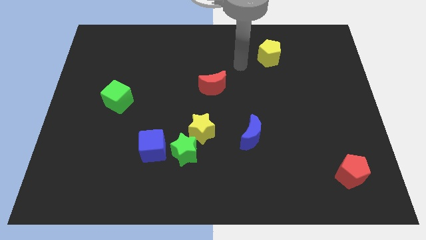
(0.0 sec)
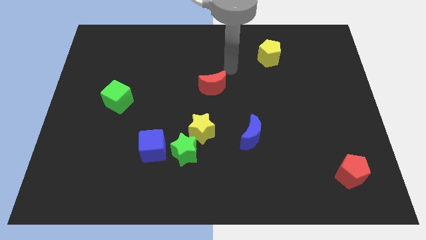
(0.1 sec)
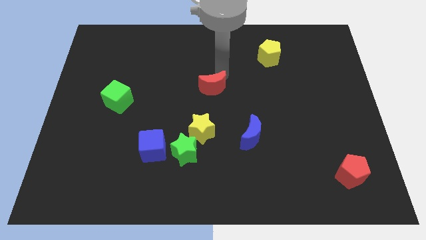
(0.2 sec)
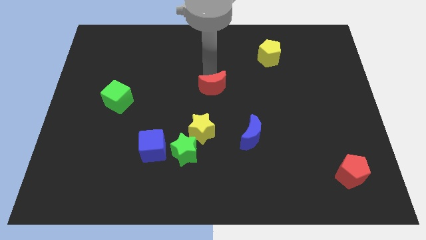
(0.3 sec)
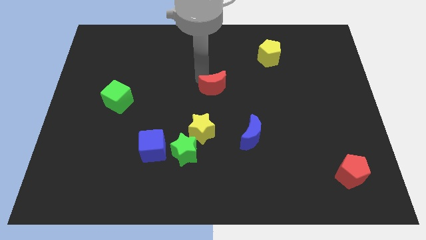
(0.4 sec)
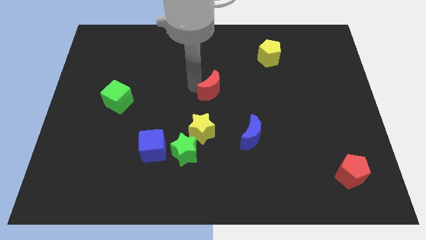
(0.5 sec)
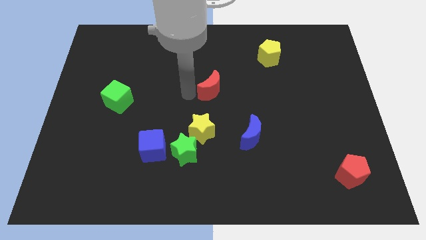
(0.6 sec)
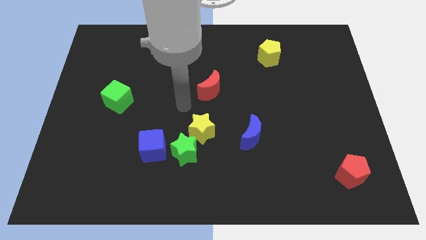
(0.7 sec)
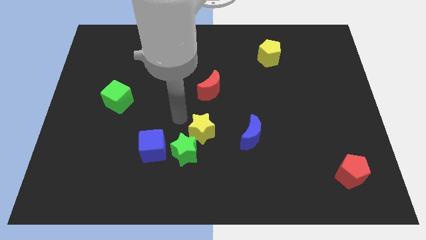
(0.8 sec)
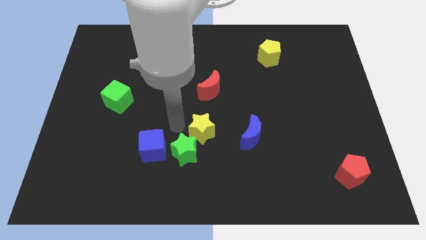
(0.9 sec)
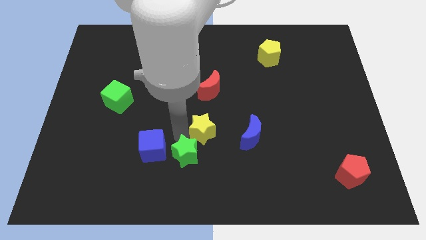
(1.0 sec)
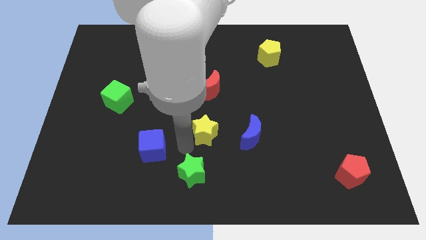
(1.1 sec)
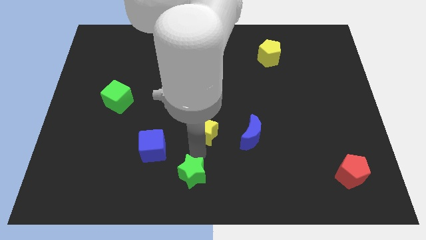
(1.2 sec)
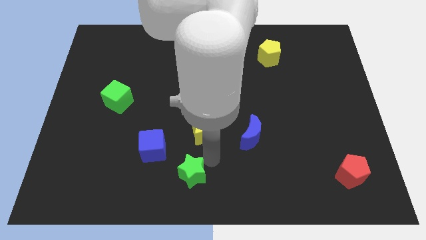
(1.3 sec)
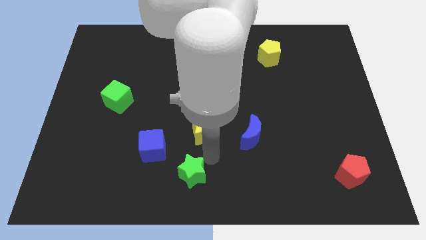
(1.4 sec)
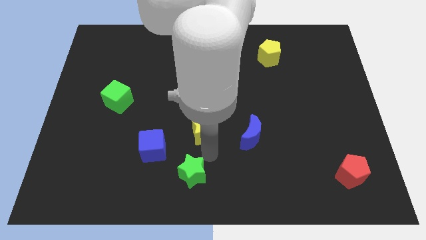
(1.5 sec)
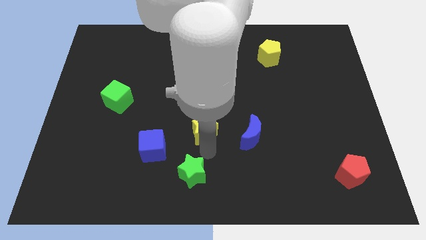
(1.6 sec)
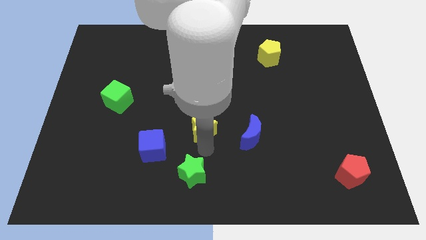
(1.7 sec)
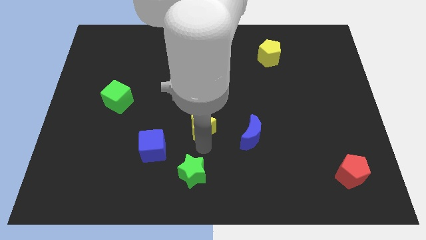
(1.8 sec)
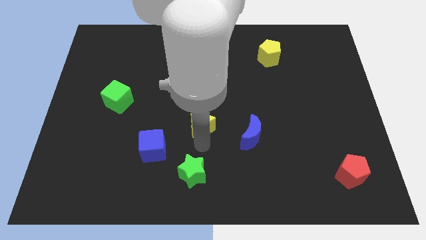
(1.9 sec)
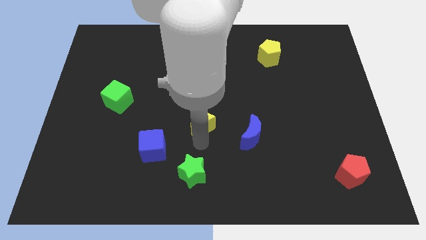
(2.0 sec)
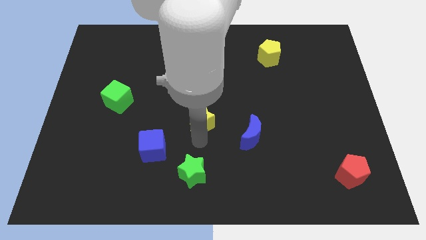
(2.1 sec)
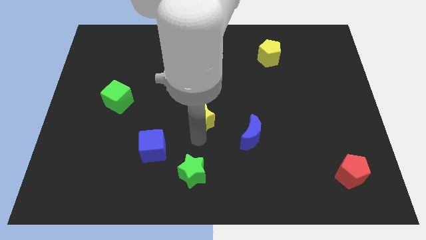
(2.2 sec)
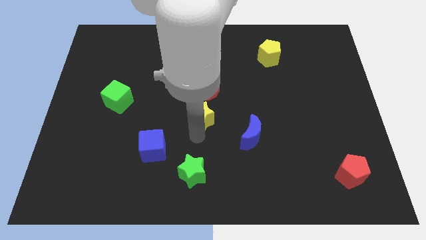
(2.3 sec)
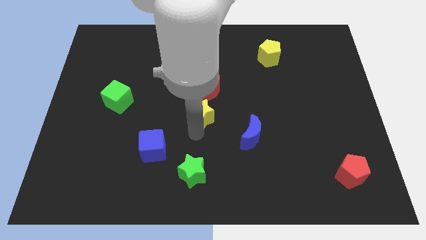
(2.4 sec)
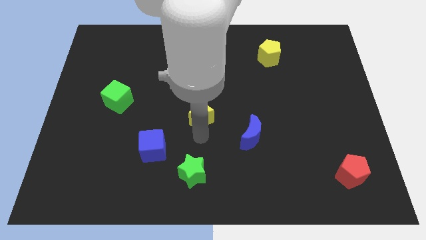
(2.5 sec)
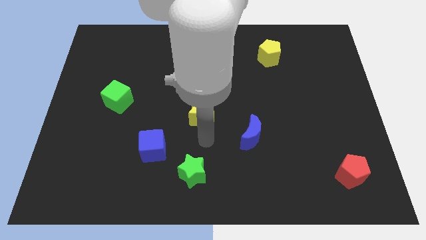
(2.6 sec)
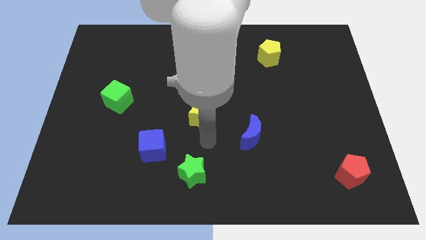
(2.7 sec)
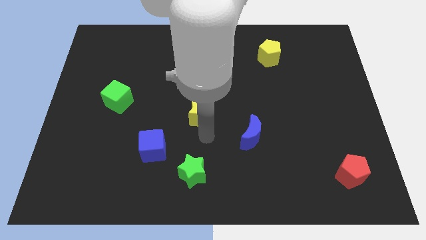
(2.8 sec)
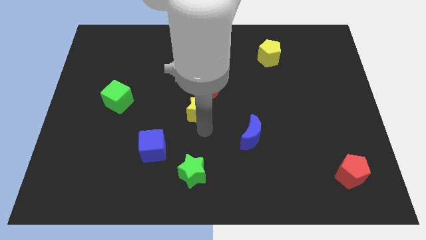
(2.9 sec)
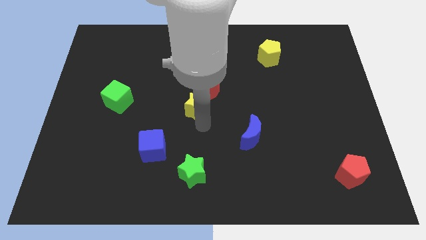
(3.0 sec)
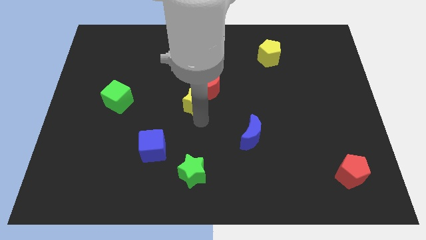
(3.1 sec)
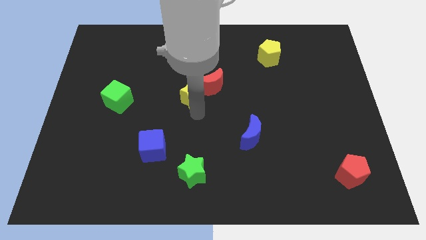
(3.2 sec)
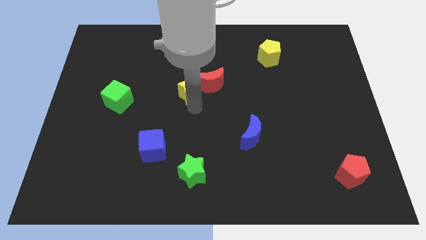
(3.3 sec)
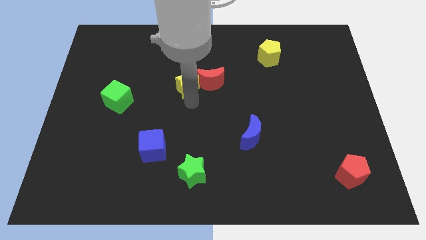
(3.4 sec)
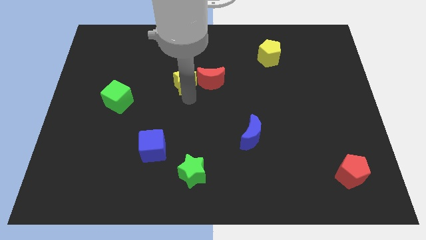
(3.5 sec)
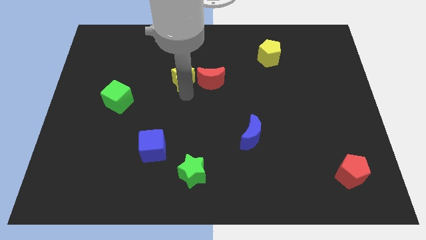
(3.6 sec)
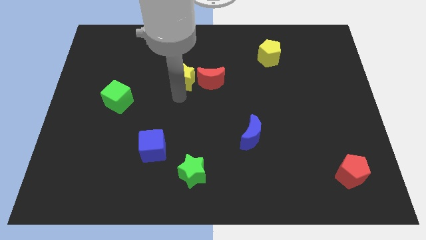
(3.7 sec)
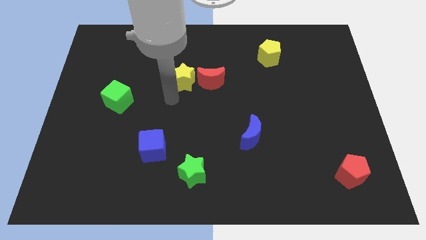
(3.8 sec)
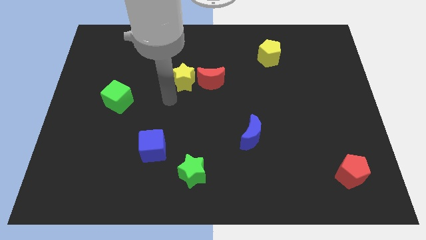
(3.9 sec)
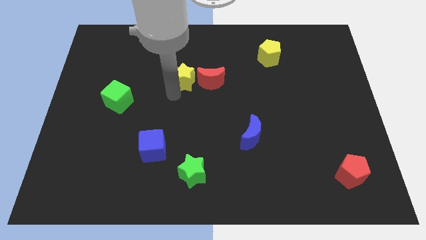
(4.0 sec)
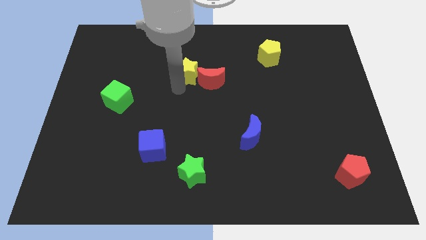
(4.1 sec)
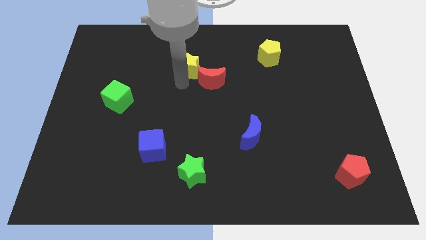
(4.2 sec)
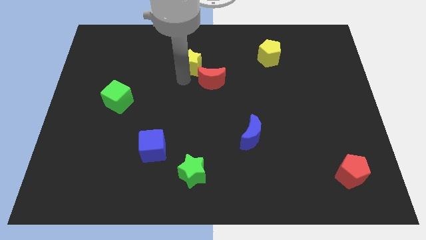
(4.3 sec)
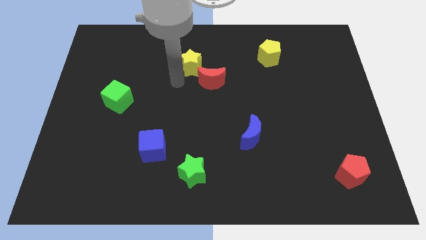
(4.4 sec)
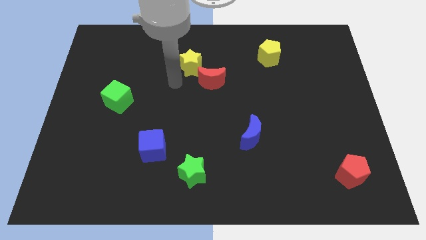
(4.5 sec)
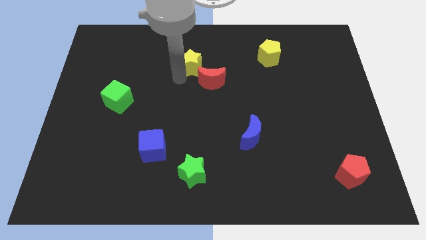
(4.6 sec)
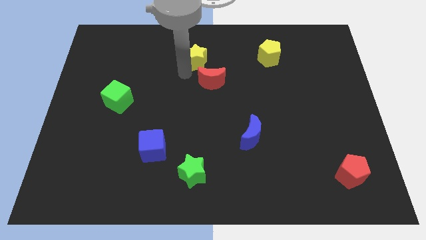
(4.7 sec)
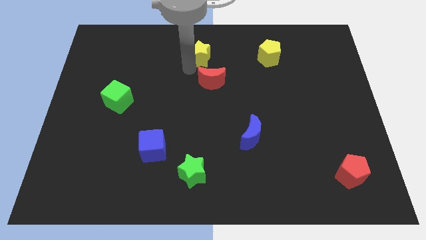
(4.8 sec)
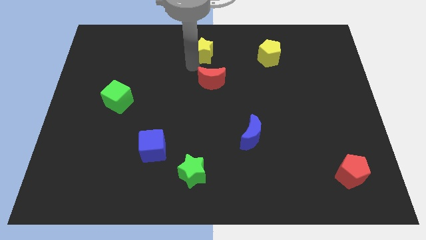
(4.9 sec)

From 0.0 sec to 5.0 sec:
move the yellow star to the top

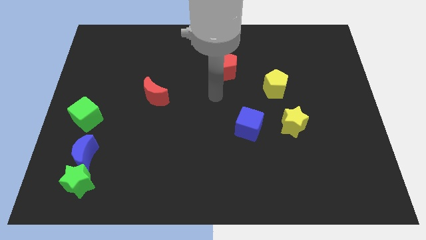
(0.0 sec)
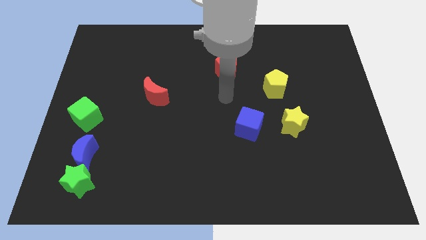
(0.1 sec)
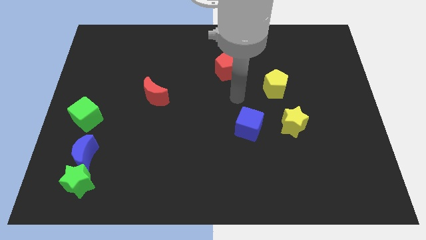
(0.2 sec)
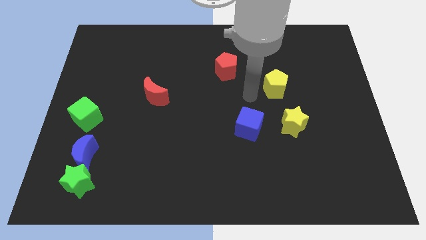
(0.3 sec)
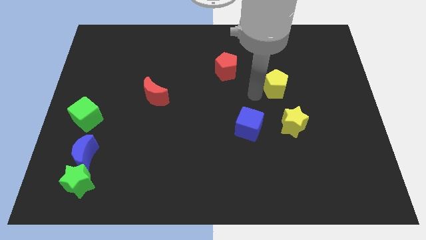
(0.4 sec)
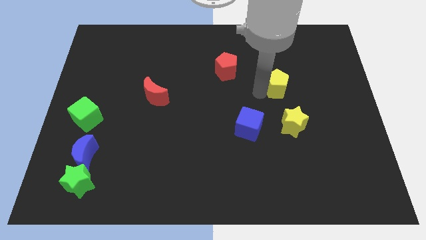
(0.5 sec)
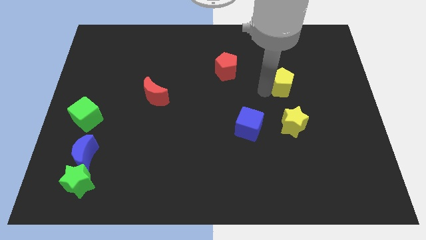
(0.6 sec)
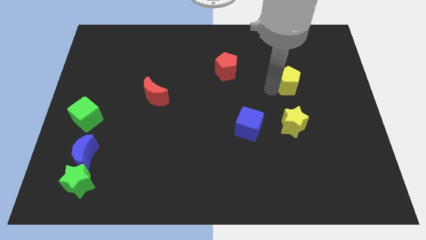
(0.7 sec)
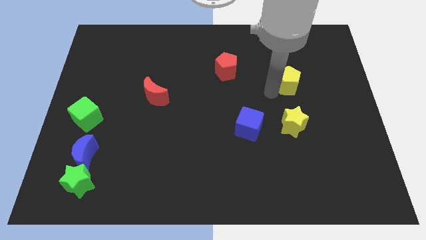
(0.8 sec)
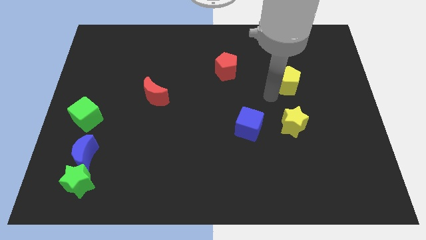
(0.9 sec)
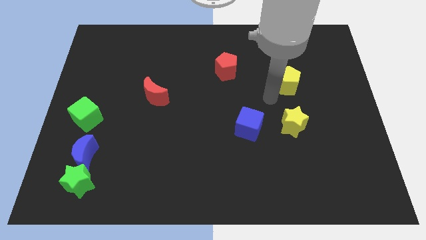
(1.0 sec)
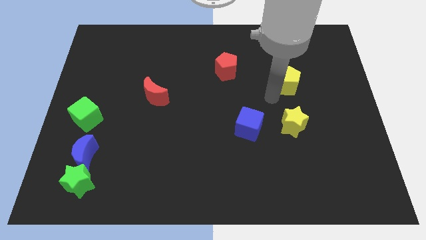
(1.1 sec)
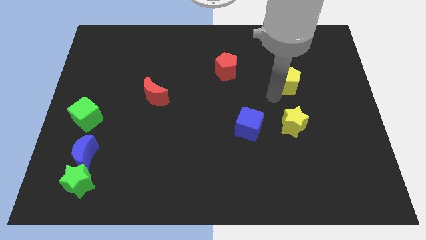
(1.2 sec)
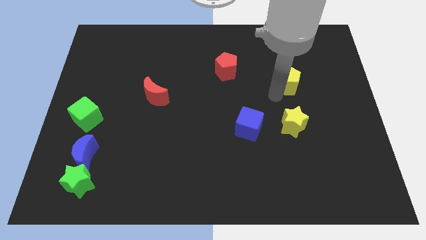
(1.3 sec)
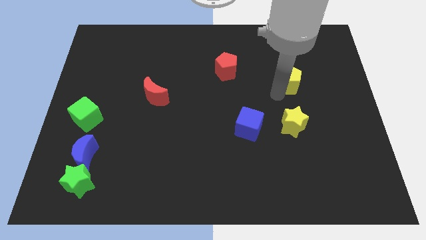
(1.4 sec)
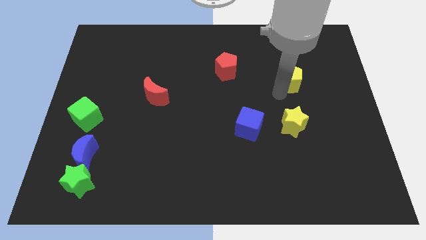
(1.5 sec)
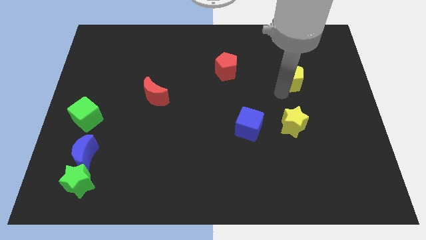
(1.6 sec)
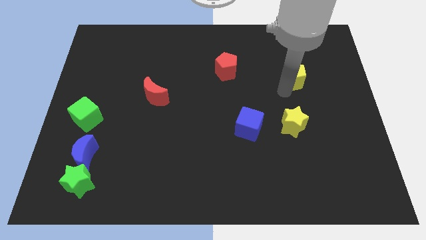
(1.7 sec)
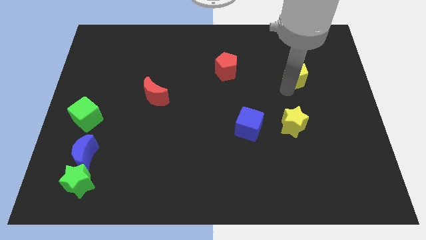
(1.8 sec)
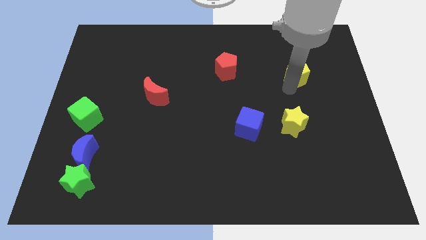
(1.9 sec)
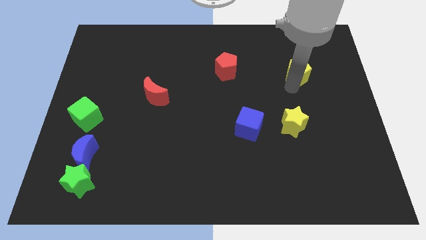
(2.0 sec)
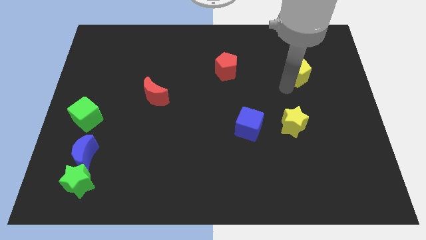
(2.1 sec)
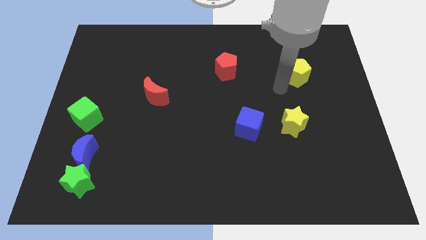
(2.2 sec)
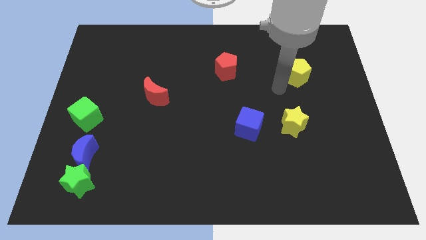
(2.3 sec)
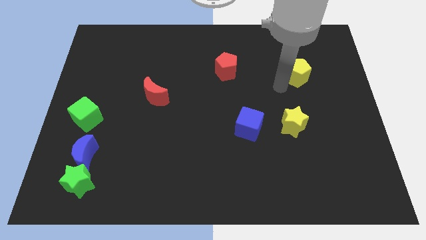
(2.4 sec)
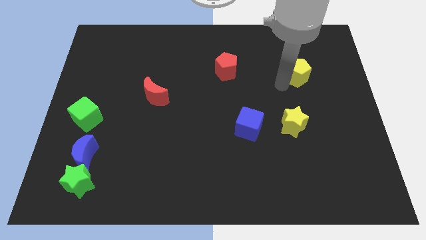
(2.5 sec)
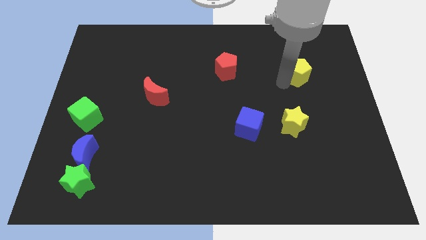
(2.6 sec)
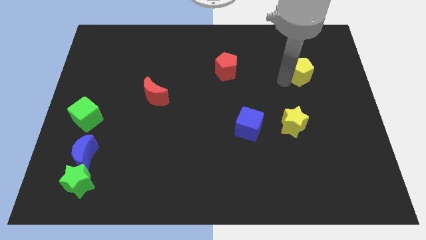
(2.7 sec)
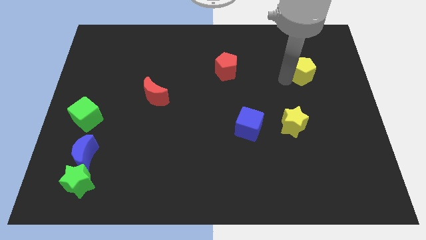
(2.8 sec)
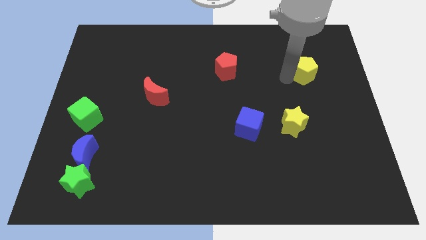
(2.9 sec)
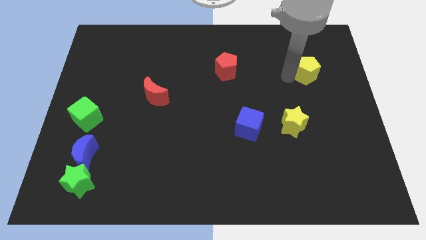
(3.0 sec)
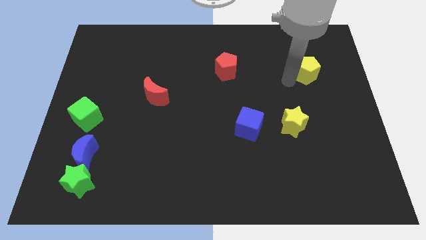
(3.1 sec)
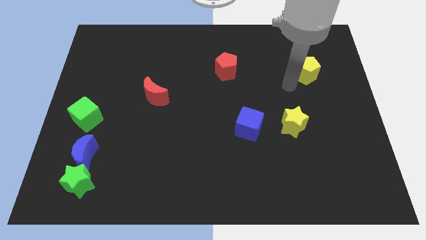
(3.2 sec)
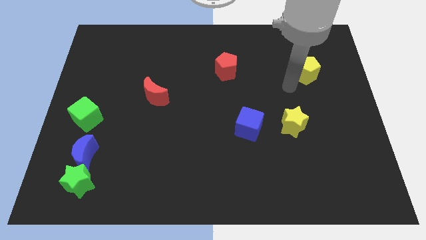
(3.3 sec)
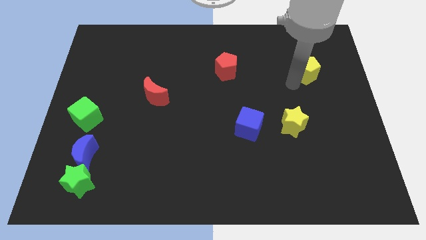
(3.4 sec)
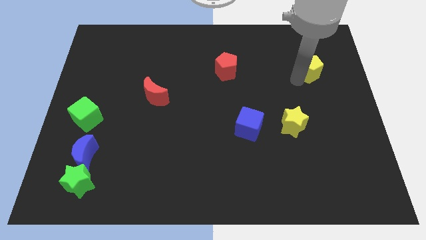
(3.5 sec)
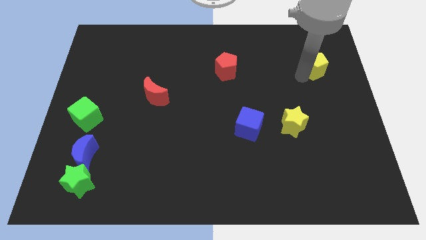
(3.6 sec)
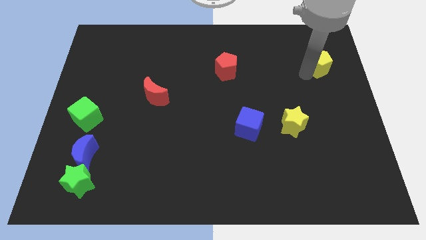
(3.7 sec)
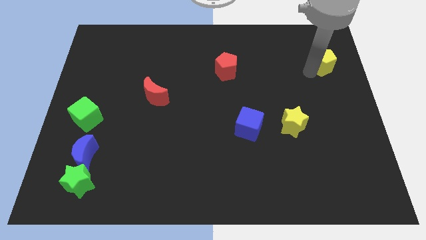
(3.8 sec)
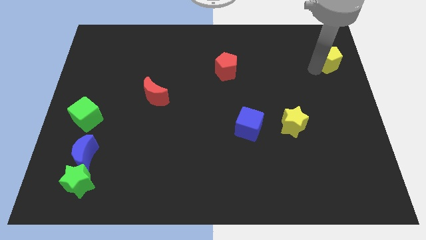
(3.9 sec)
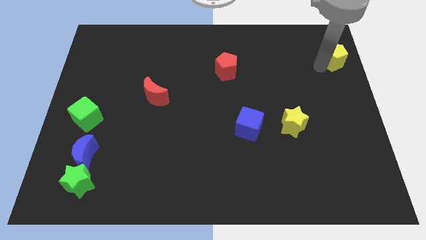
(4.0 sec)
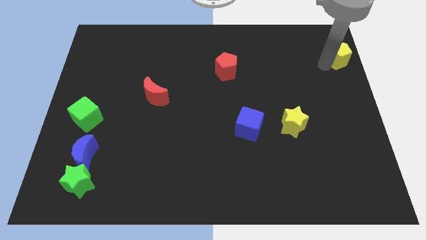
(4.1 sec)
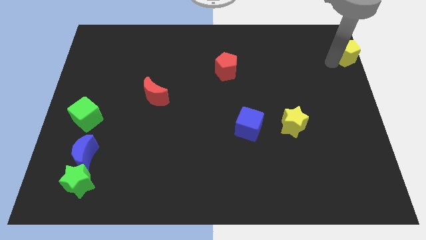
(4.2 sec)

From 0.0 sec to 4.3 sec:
put the yellow pentagon to the top right of the board
